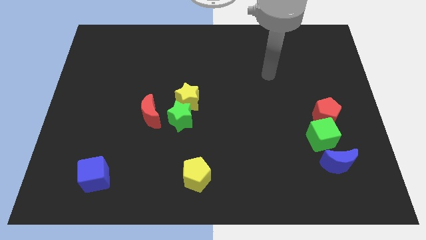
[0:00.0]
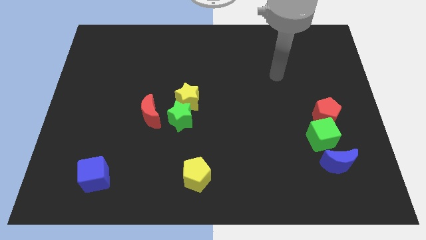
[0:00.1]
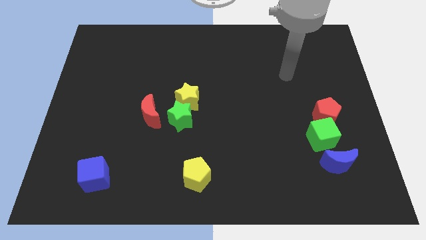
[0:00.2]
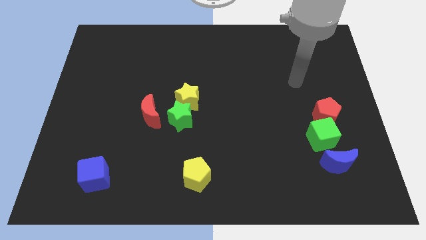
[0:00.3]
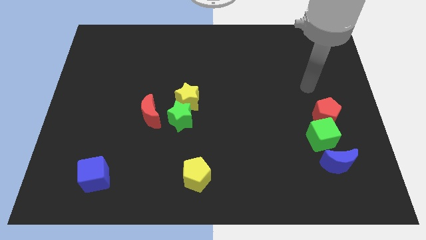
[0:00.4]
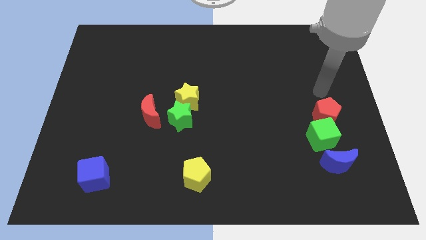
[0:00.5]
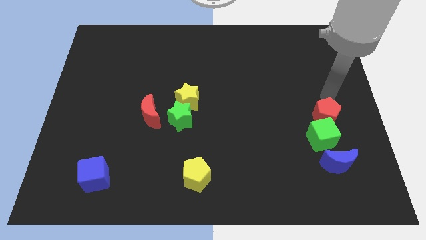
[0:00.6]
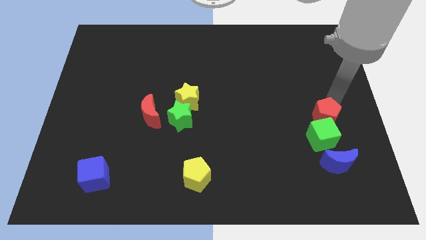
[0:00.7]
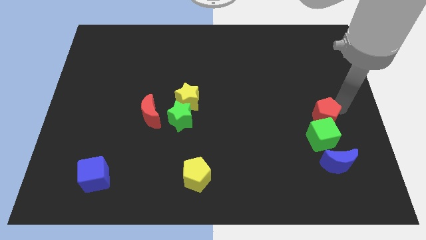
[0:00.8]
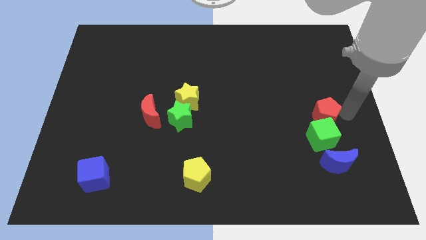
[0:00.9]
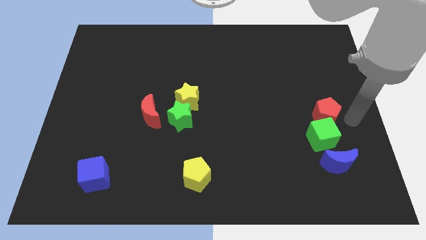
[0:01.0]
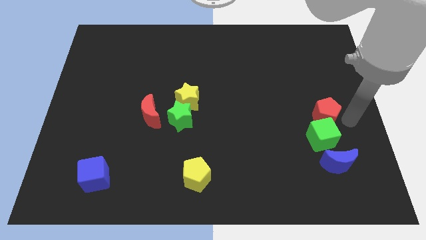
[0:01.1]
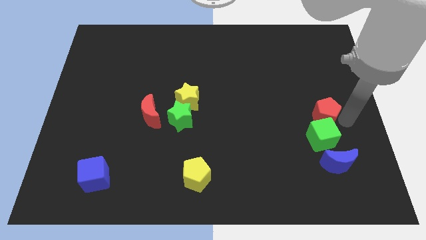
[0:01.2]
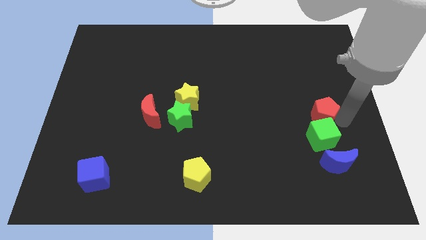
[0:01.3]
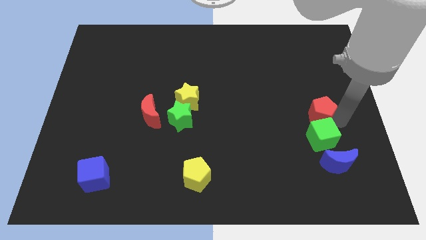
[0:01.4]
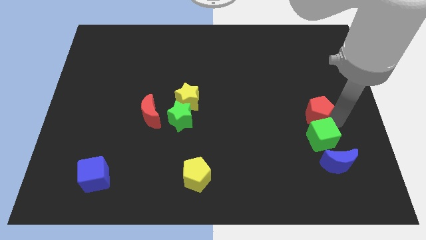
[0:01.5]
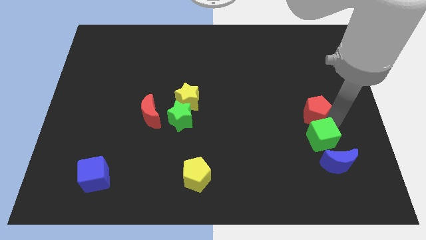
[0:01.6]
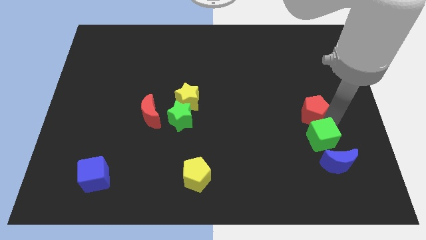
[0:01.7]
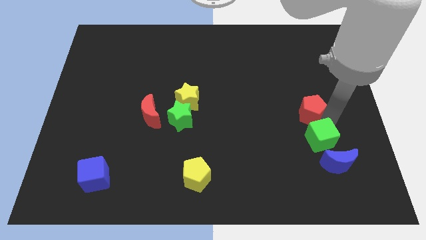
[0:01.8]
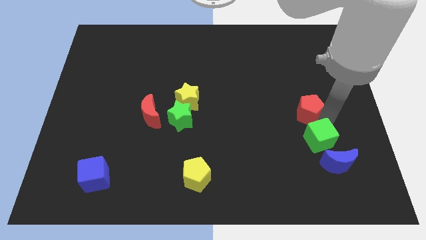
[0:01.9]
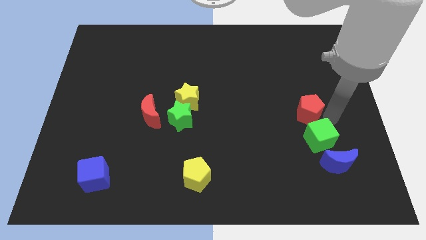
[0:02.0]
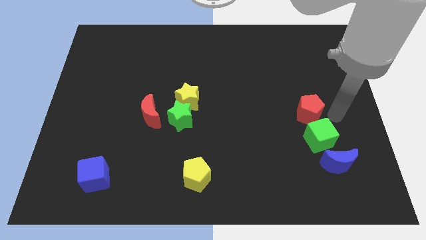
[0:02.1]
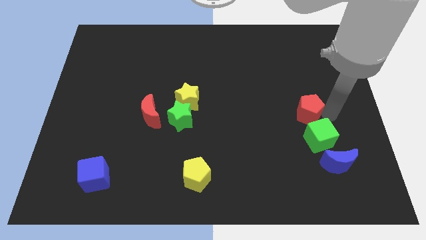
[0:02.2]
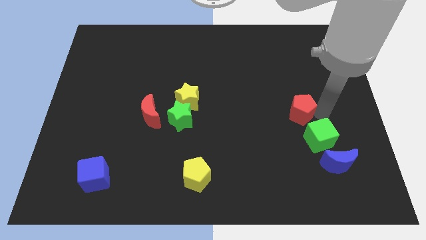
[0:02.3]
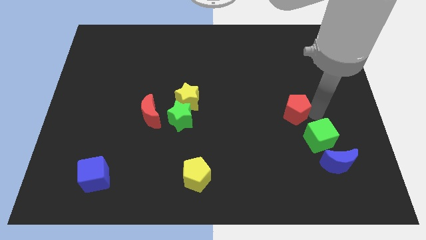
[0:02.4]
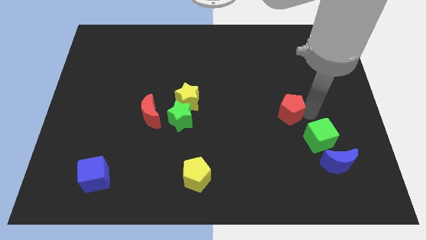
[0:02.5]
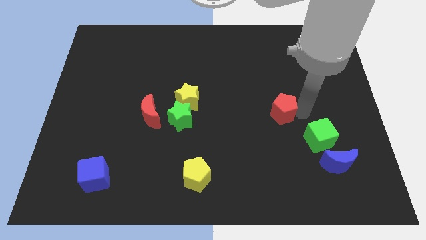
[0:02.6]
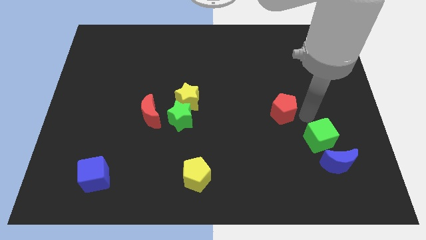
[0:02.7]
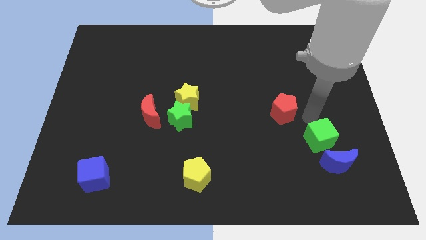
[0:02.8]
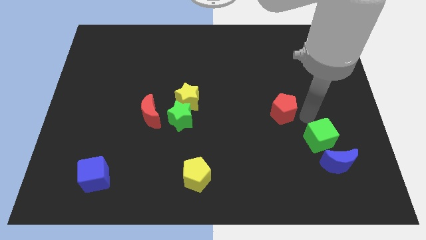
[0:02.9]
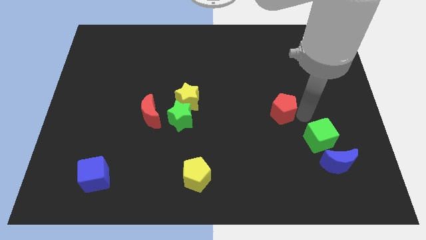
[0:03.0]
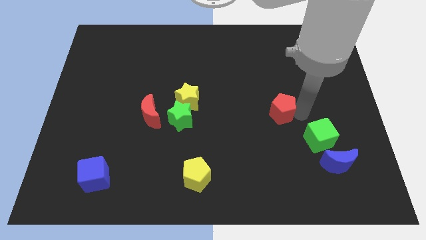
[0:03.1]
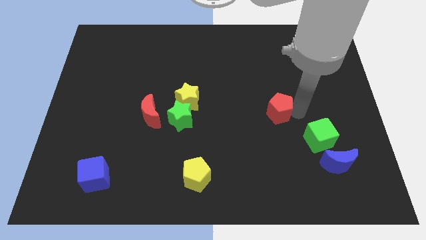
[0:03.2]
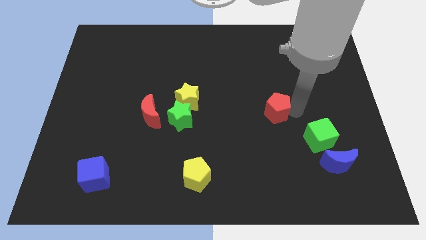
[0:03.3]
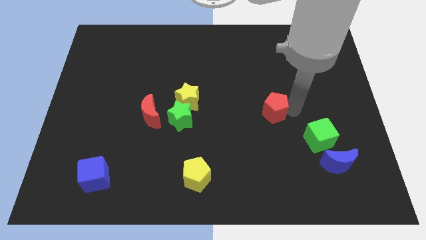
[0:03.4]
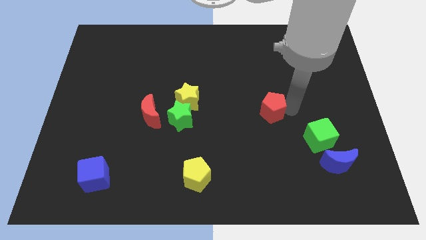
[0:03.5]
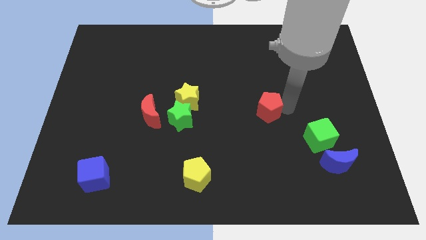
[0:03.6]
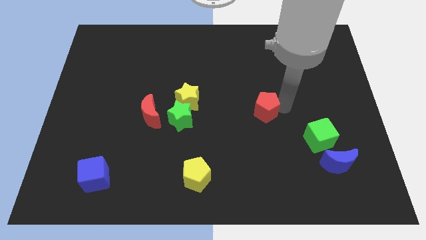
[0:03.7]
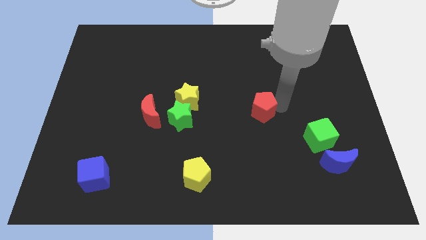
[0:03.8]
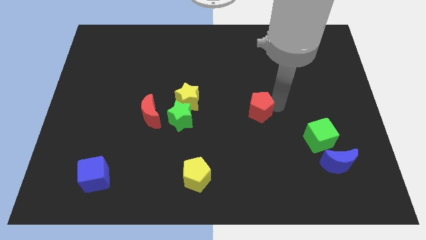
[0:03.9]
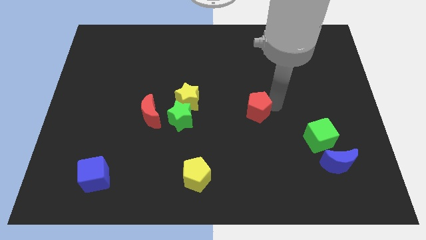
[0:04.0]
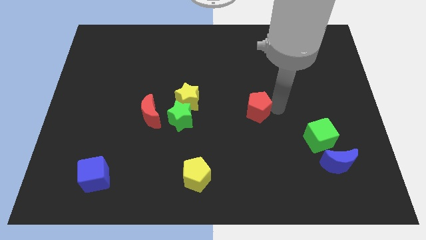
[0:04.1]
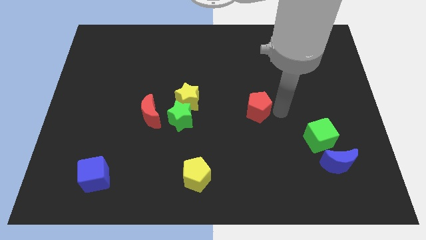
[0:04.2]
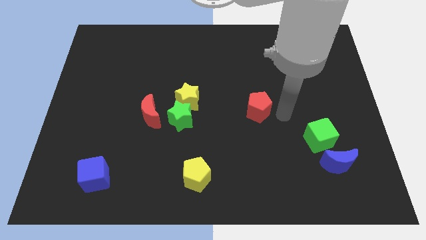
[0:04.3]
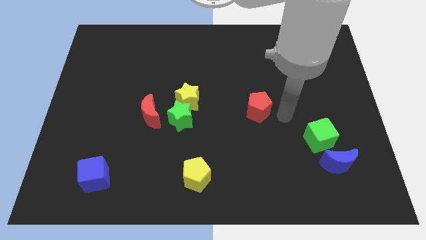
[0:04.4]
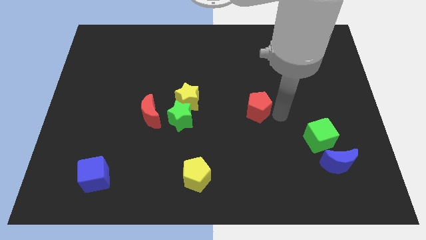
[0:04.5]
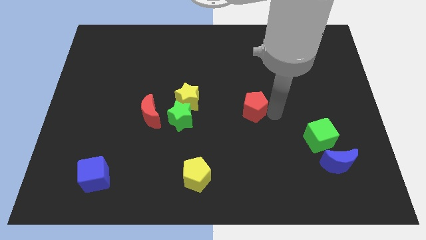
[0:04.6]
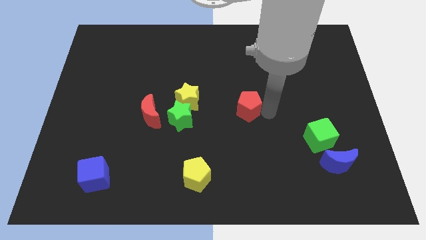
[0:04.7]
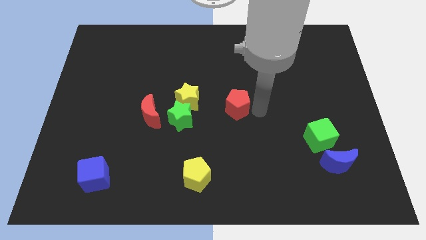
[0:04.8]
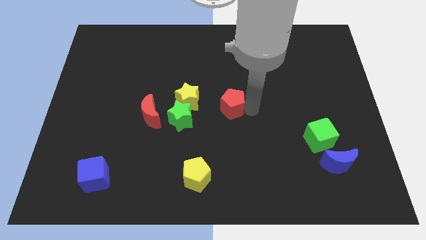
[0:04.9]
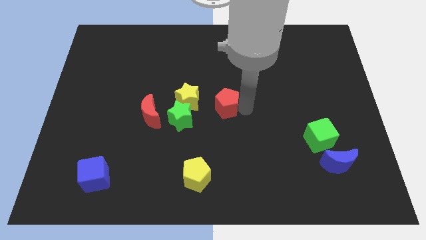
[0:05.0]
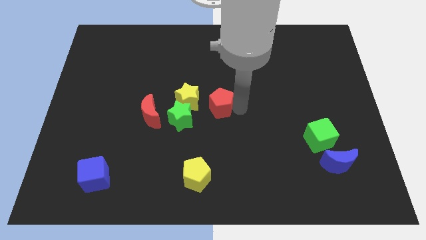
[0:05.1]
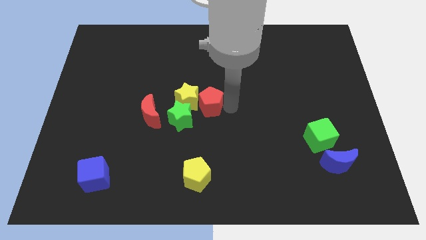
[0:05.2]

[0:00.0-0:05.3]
move the red pentagon to the yellow star

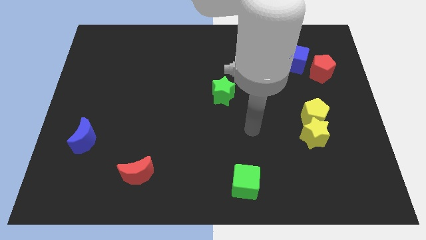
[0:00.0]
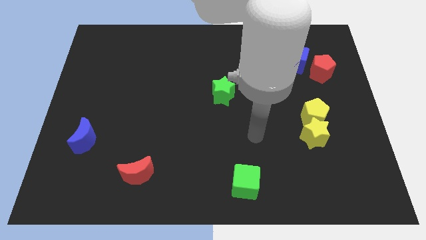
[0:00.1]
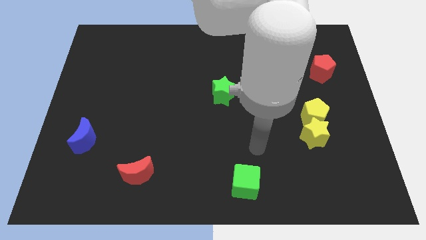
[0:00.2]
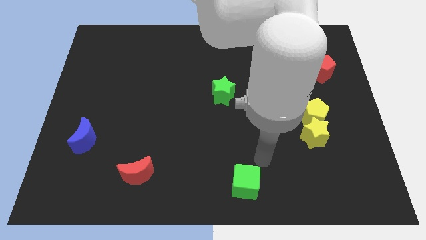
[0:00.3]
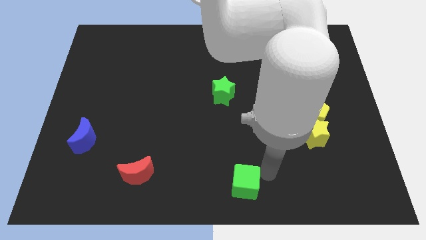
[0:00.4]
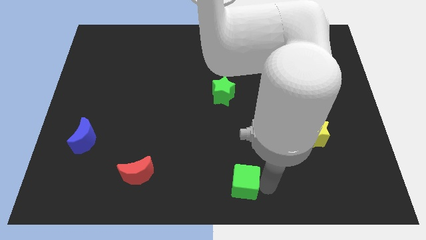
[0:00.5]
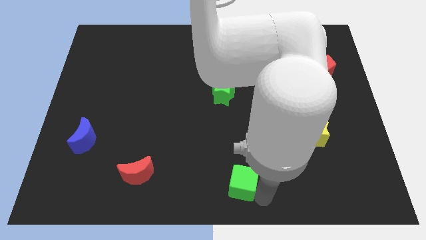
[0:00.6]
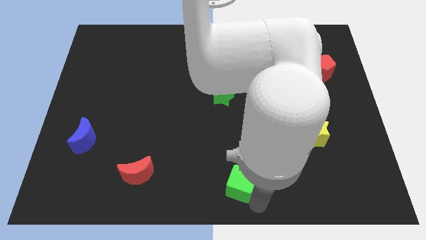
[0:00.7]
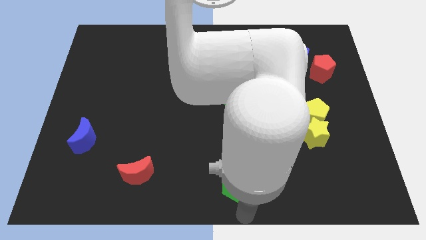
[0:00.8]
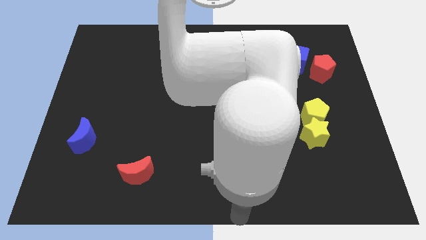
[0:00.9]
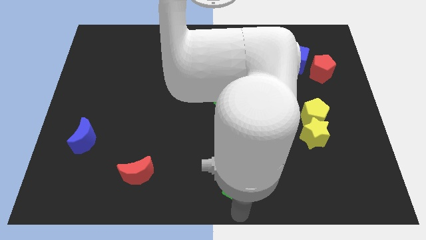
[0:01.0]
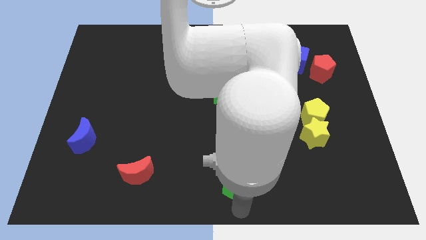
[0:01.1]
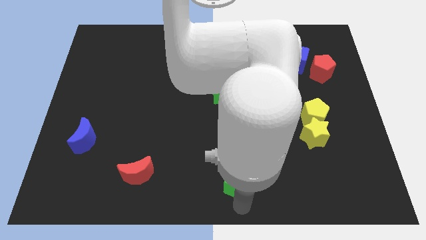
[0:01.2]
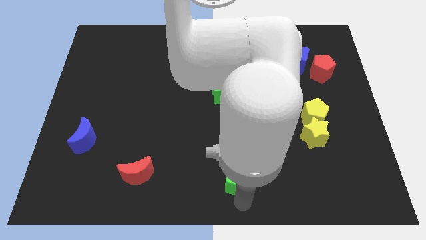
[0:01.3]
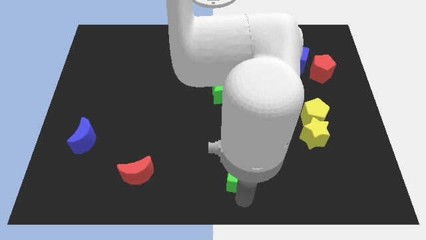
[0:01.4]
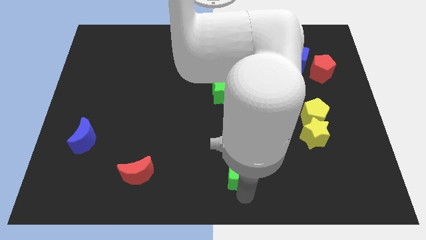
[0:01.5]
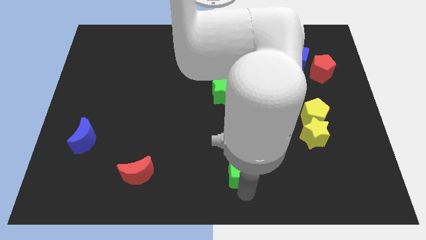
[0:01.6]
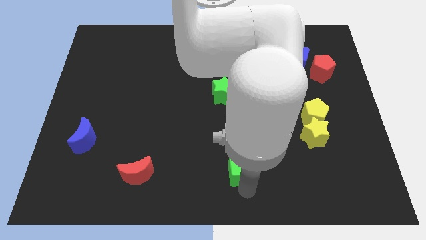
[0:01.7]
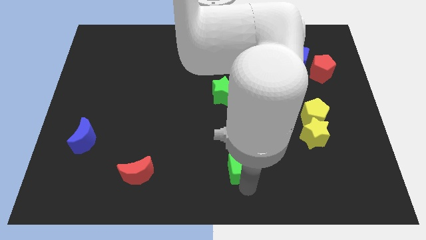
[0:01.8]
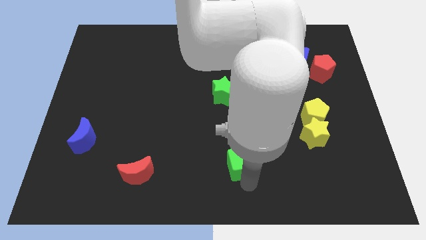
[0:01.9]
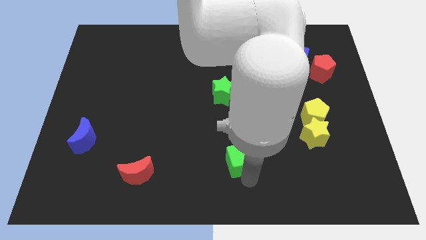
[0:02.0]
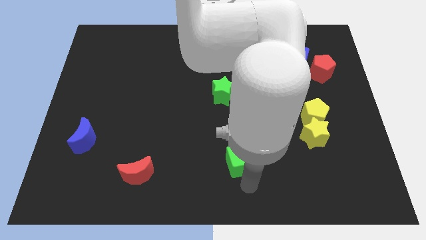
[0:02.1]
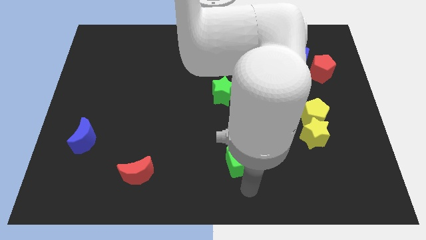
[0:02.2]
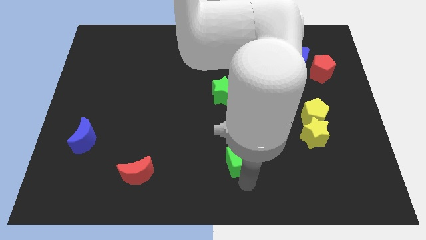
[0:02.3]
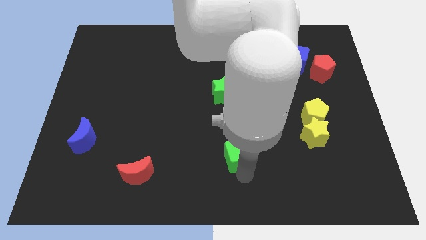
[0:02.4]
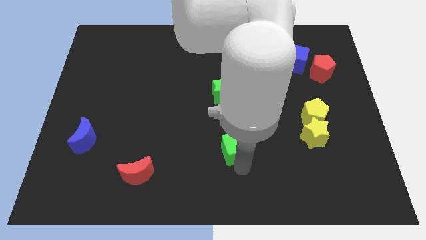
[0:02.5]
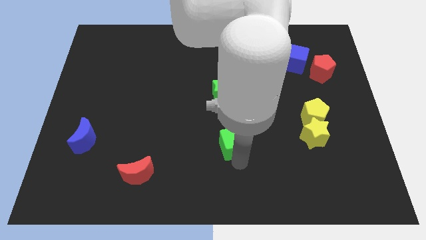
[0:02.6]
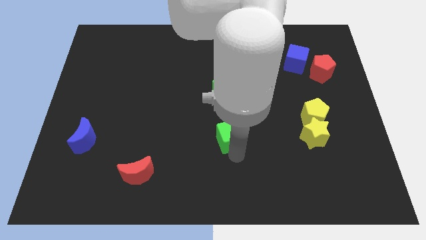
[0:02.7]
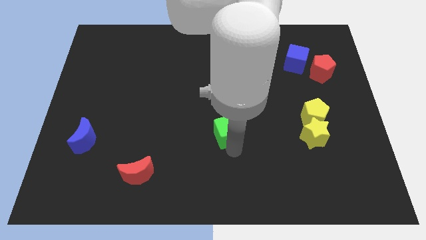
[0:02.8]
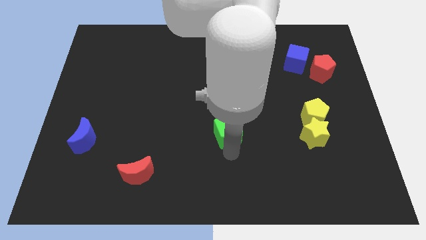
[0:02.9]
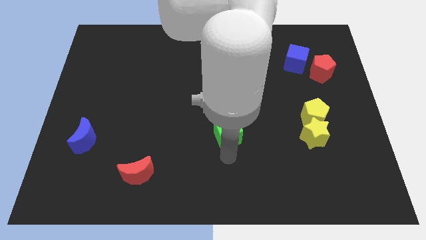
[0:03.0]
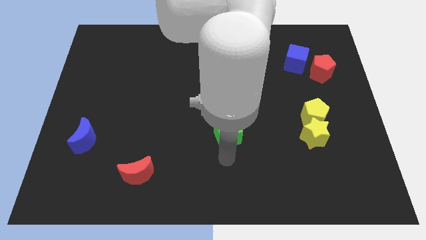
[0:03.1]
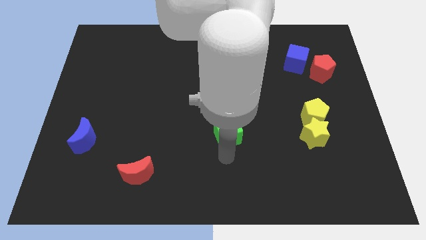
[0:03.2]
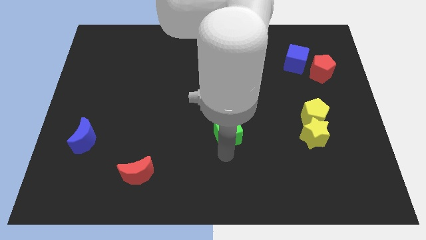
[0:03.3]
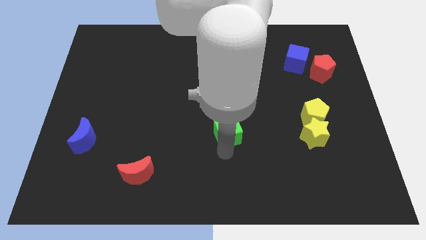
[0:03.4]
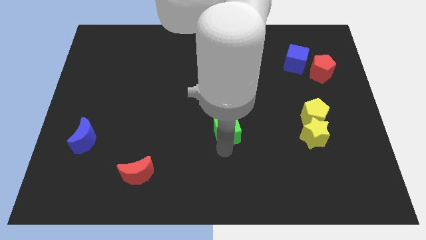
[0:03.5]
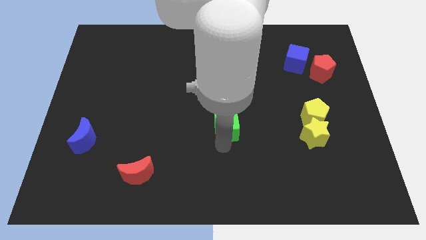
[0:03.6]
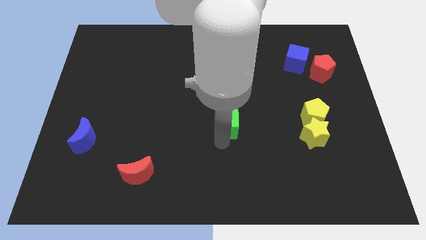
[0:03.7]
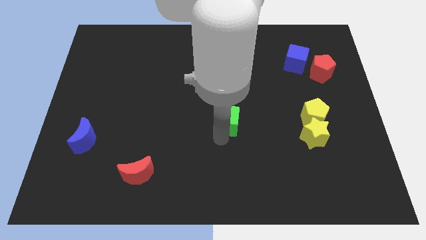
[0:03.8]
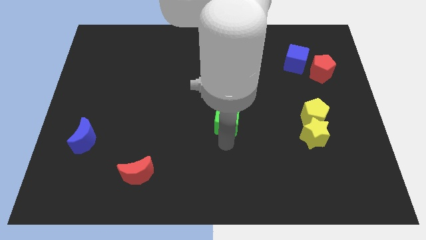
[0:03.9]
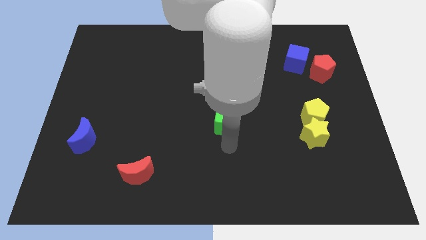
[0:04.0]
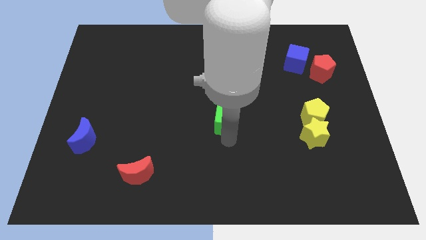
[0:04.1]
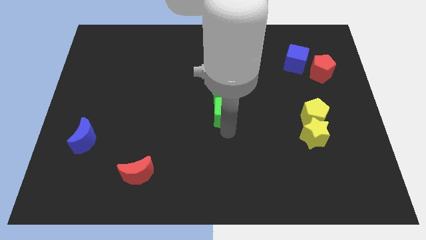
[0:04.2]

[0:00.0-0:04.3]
put the green cube to the green star
